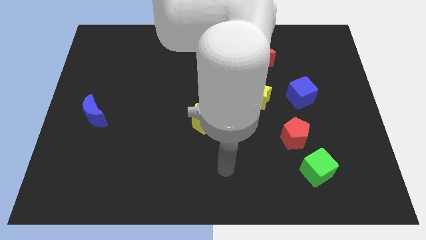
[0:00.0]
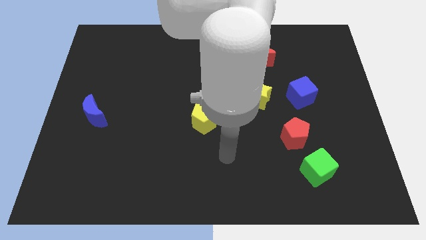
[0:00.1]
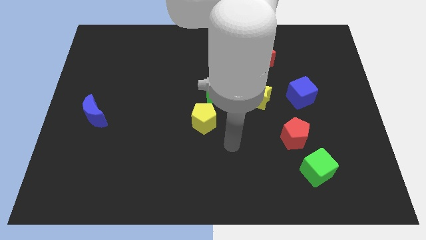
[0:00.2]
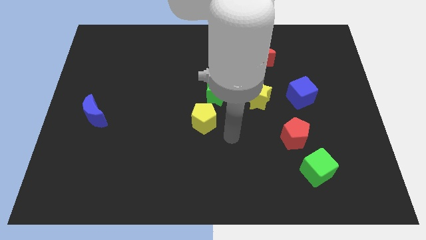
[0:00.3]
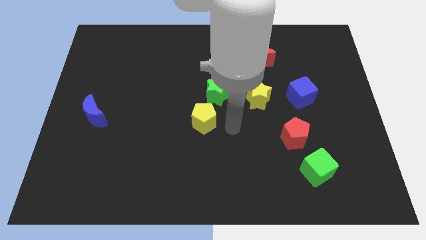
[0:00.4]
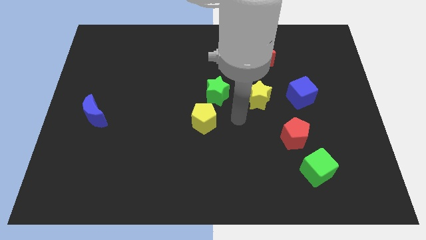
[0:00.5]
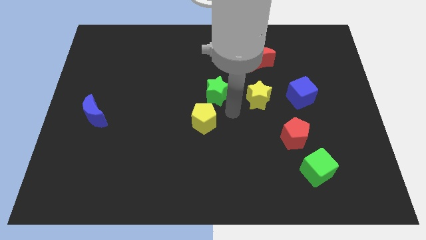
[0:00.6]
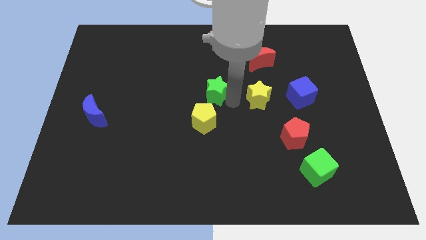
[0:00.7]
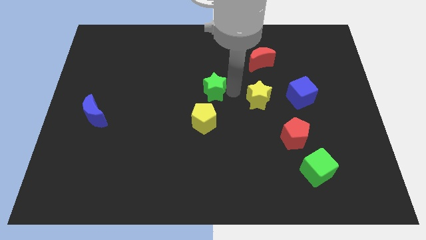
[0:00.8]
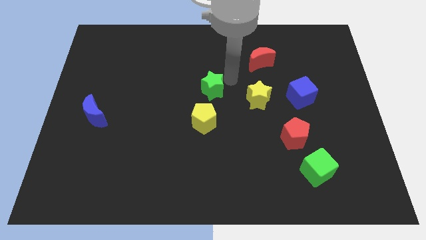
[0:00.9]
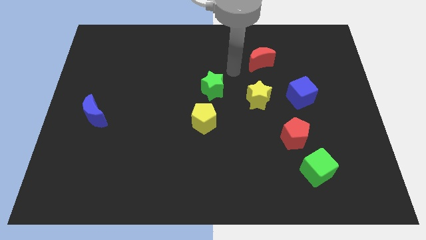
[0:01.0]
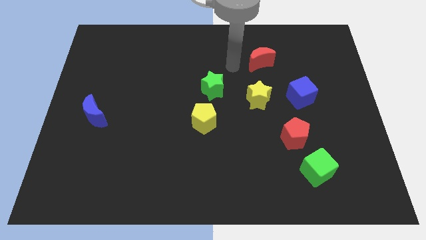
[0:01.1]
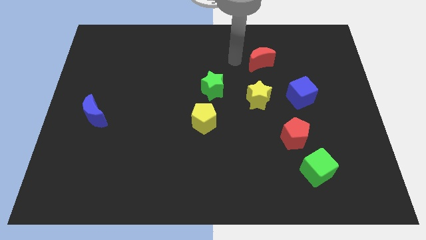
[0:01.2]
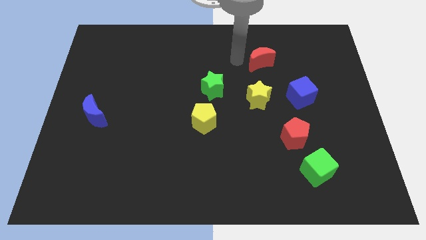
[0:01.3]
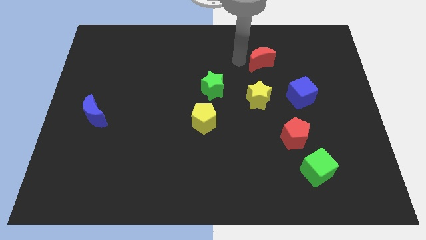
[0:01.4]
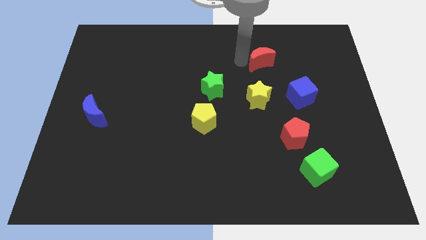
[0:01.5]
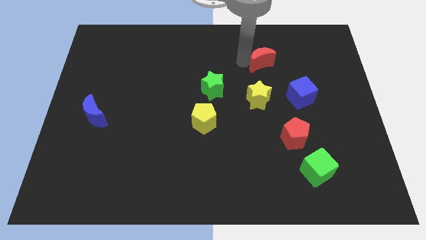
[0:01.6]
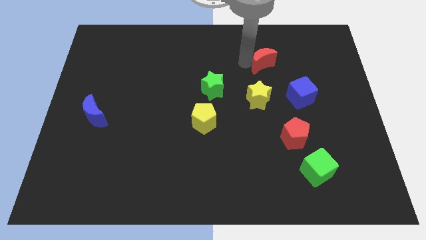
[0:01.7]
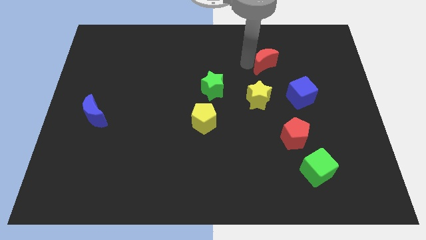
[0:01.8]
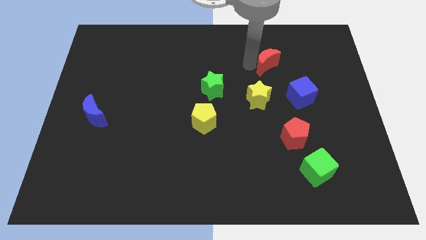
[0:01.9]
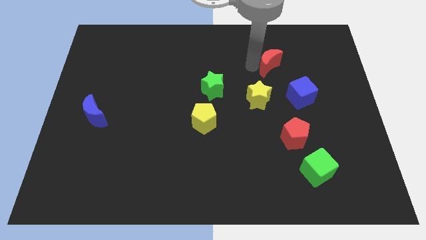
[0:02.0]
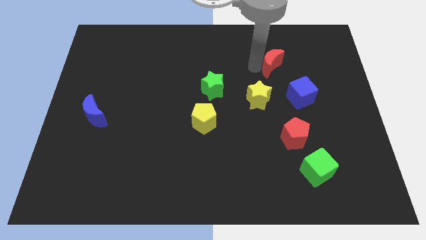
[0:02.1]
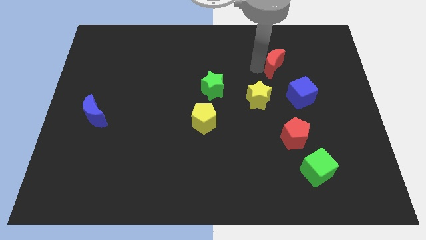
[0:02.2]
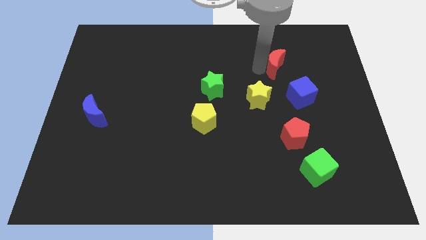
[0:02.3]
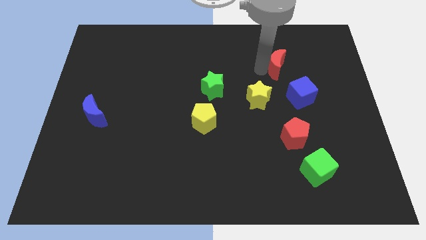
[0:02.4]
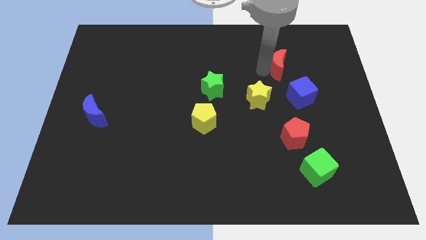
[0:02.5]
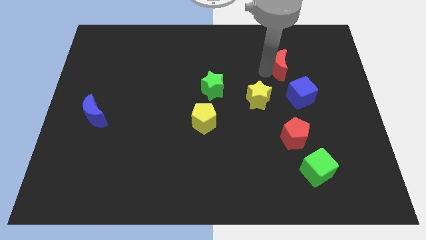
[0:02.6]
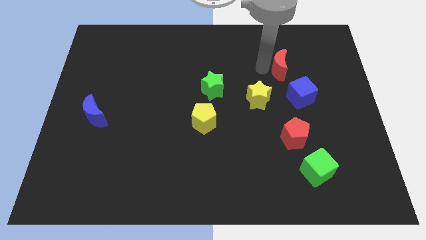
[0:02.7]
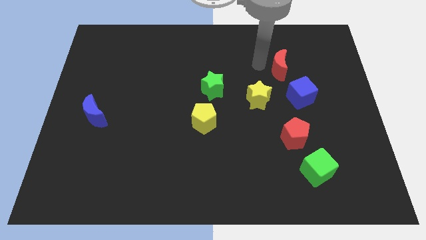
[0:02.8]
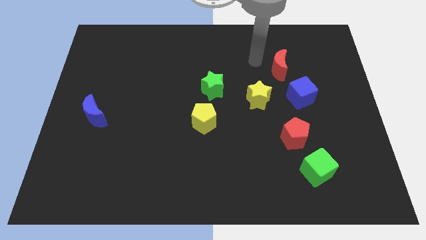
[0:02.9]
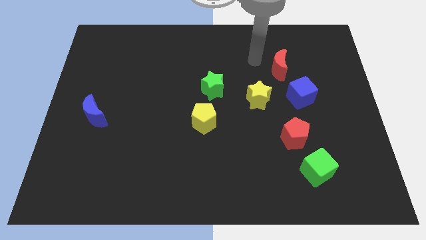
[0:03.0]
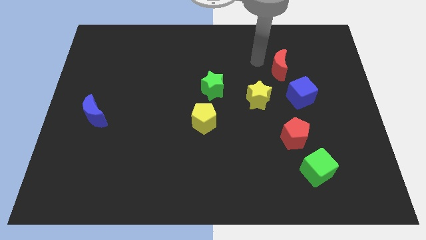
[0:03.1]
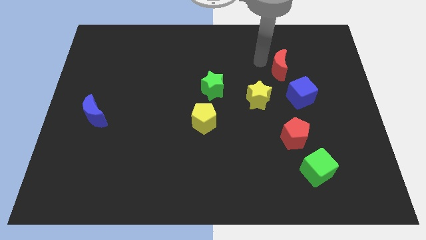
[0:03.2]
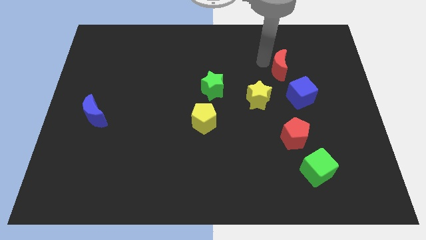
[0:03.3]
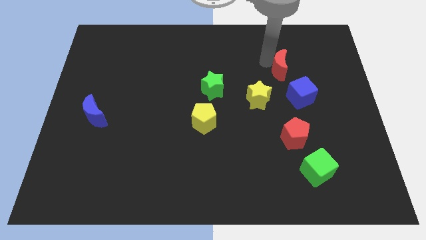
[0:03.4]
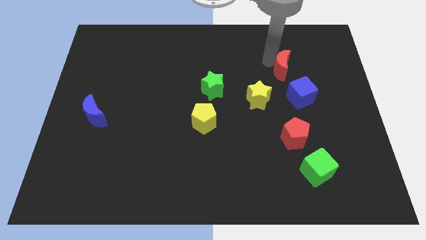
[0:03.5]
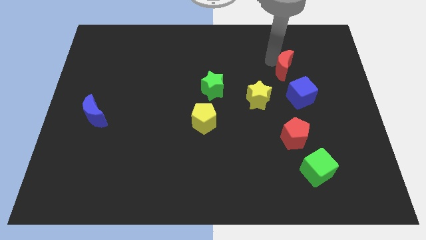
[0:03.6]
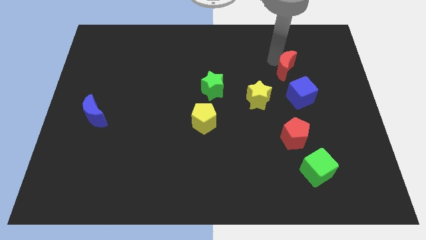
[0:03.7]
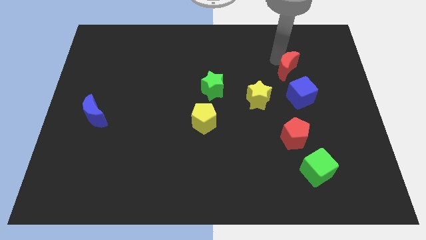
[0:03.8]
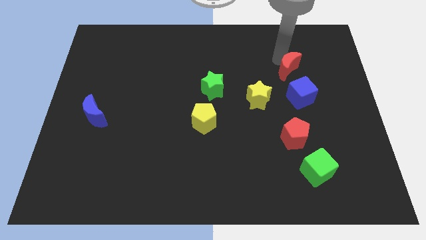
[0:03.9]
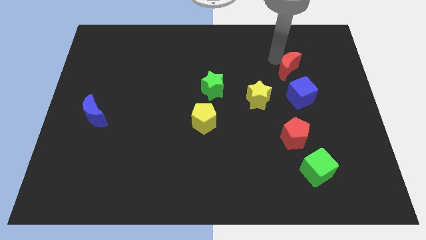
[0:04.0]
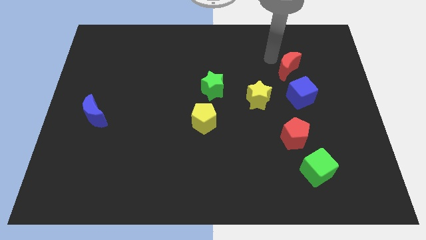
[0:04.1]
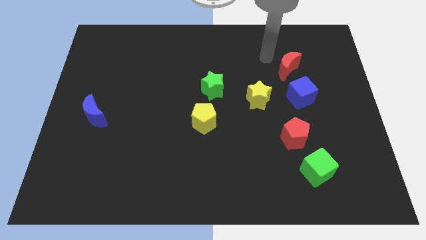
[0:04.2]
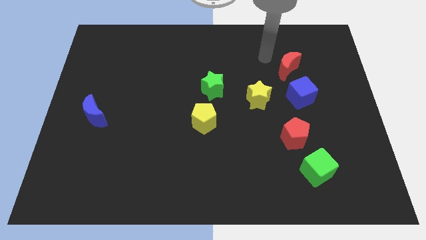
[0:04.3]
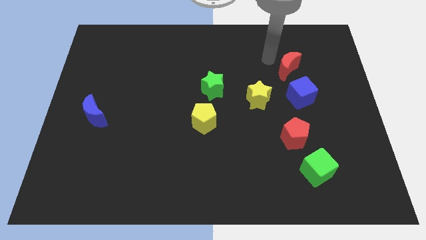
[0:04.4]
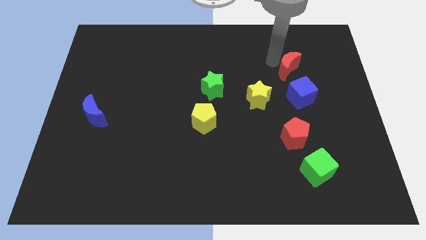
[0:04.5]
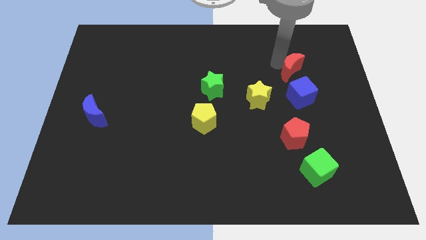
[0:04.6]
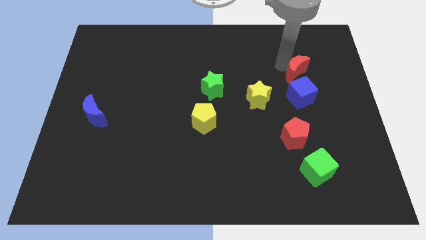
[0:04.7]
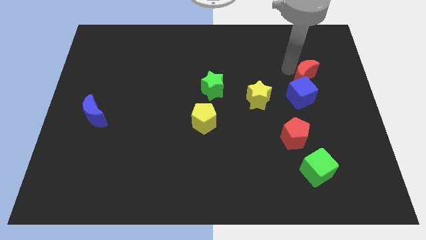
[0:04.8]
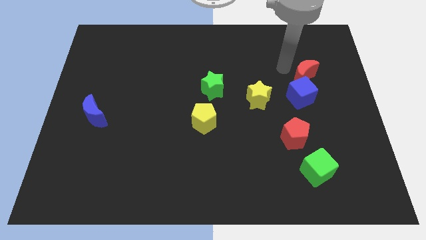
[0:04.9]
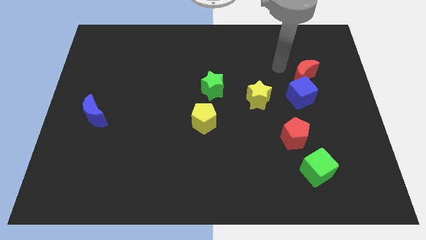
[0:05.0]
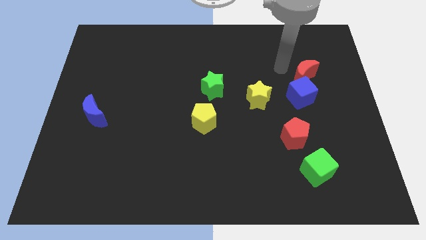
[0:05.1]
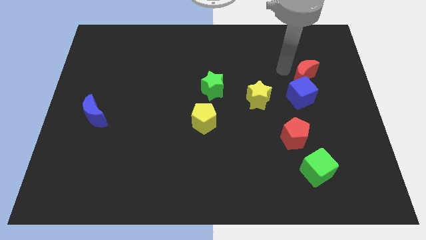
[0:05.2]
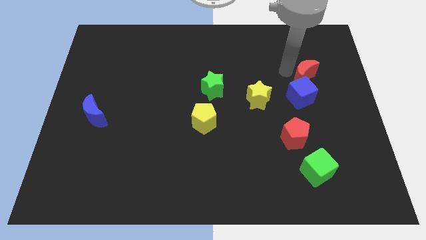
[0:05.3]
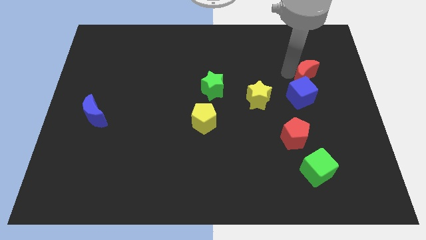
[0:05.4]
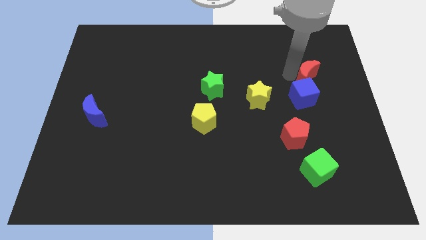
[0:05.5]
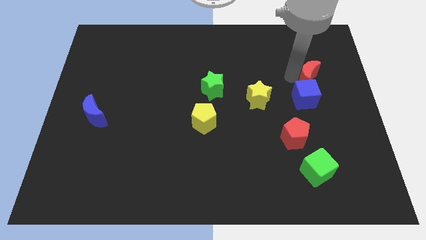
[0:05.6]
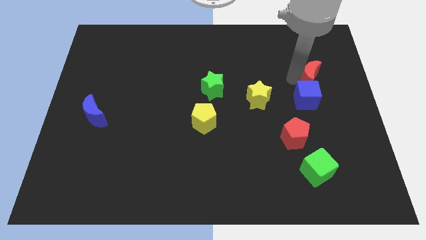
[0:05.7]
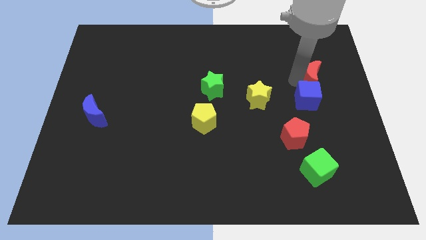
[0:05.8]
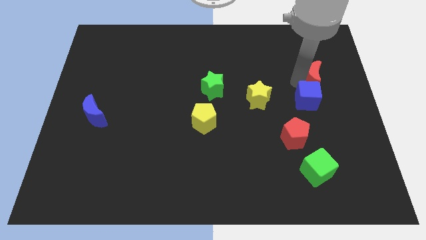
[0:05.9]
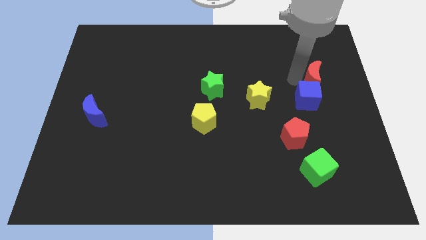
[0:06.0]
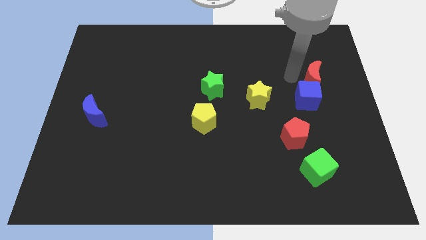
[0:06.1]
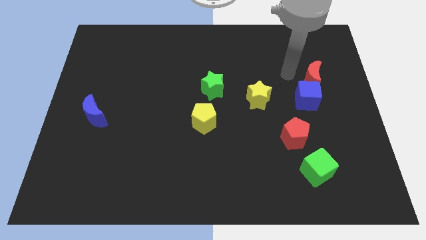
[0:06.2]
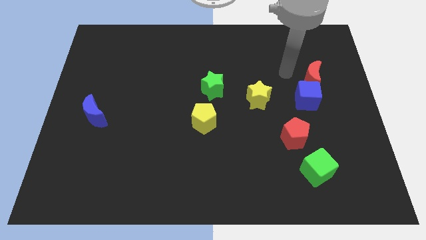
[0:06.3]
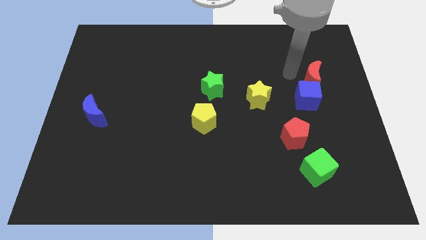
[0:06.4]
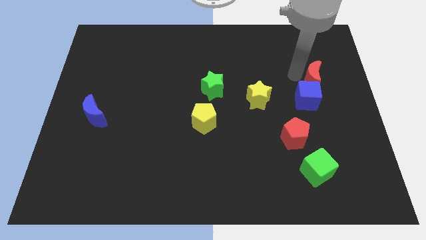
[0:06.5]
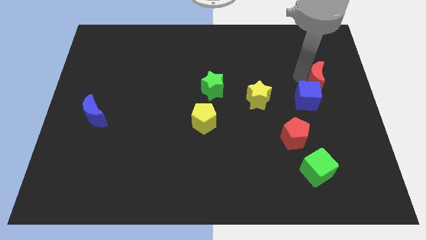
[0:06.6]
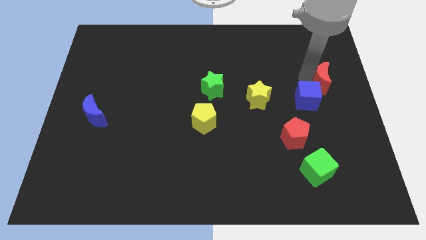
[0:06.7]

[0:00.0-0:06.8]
push the red moon to the right side of the board
